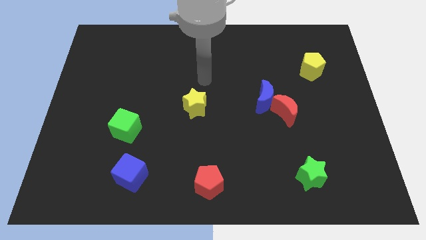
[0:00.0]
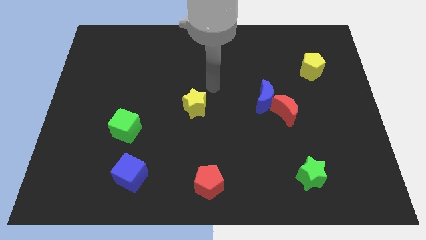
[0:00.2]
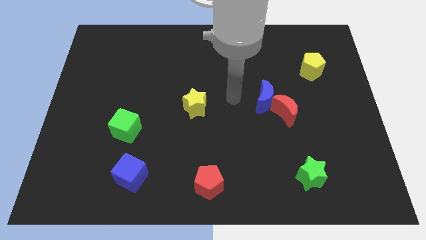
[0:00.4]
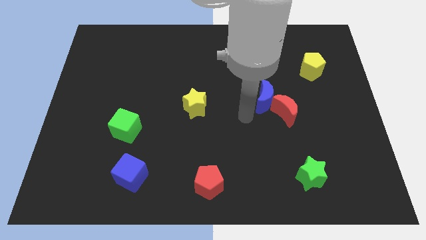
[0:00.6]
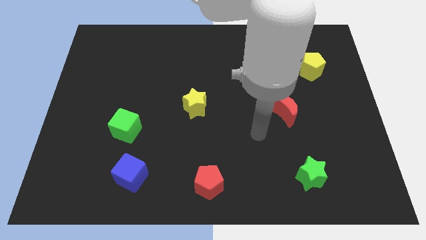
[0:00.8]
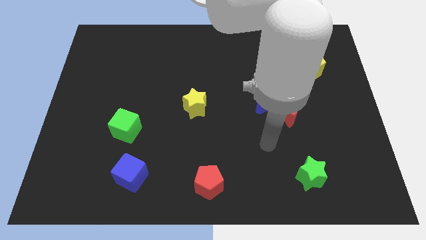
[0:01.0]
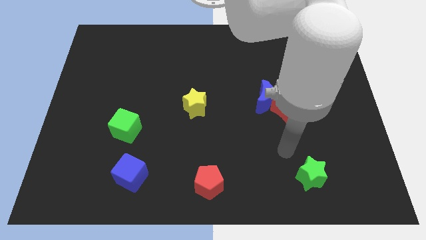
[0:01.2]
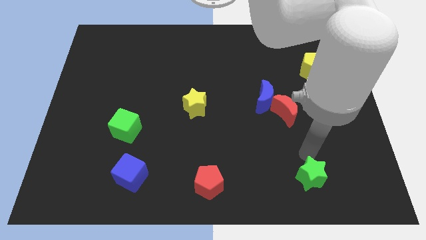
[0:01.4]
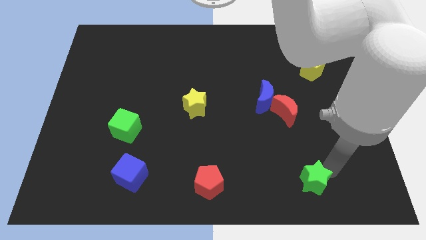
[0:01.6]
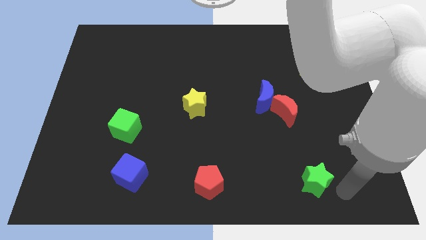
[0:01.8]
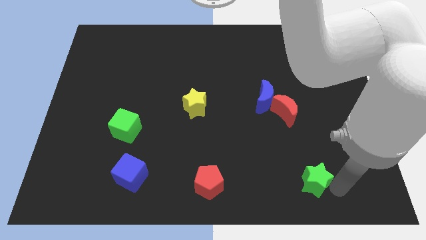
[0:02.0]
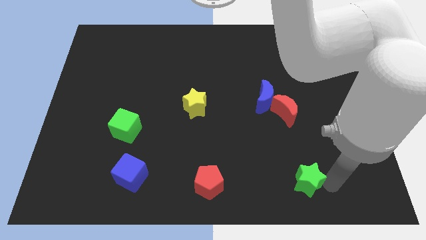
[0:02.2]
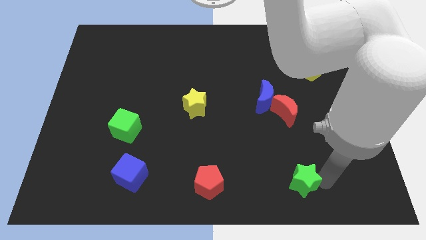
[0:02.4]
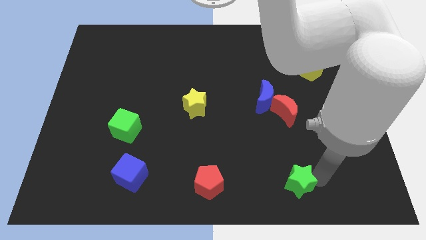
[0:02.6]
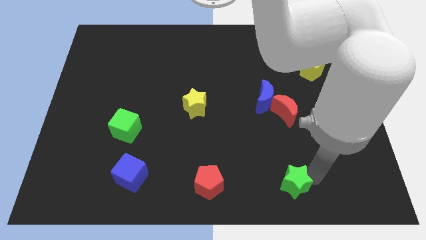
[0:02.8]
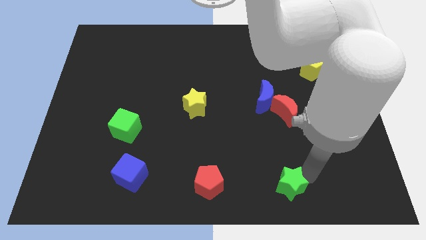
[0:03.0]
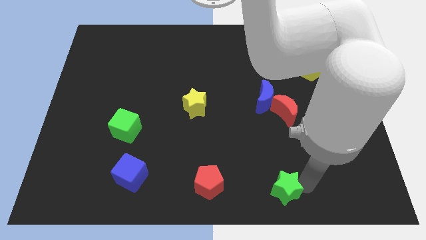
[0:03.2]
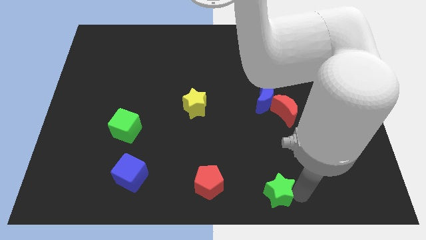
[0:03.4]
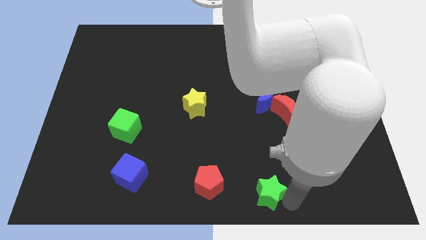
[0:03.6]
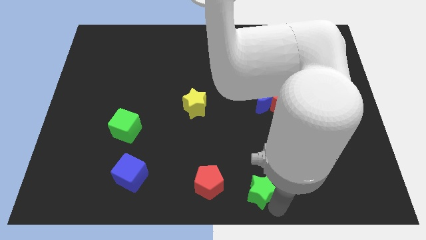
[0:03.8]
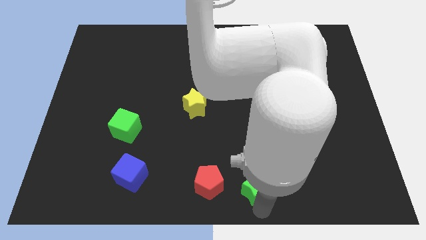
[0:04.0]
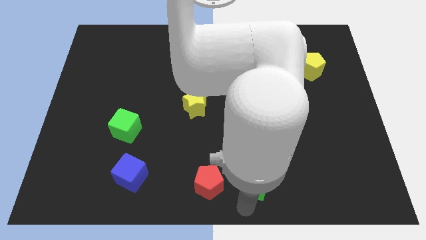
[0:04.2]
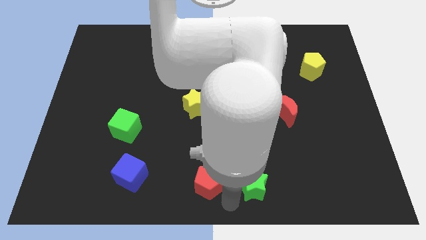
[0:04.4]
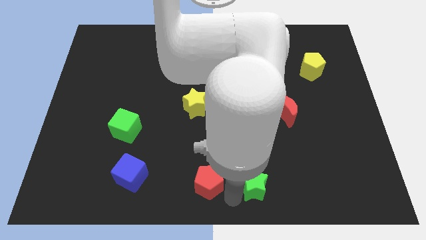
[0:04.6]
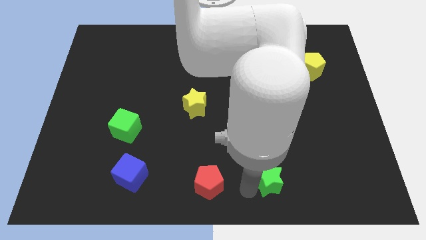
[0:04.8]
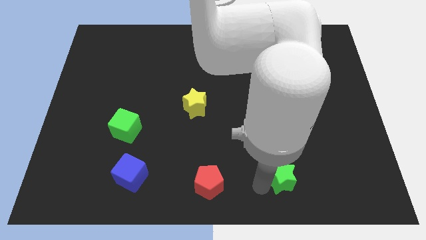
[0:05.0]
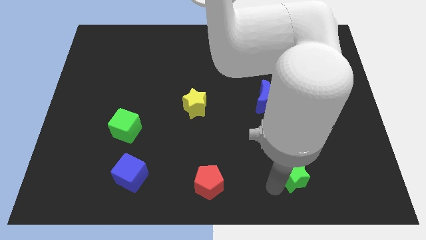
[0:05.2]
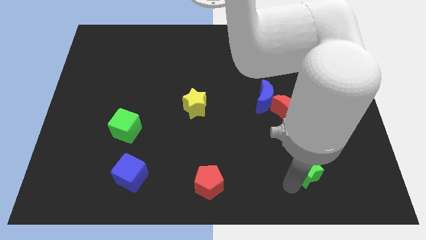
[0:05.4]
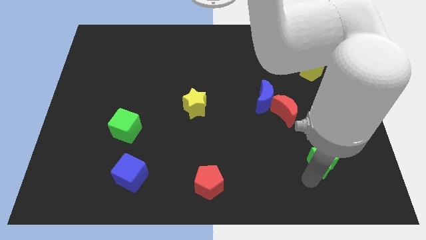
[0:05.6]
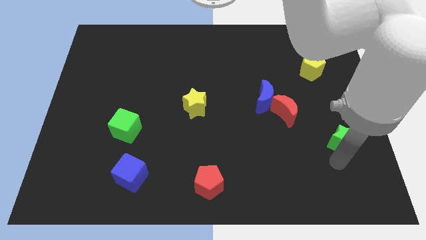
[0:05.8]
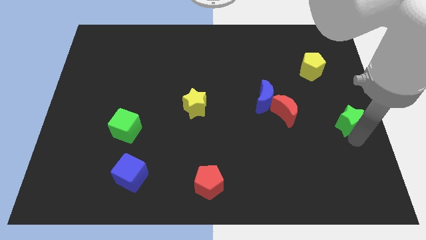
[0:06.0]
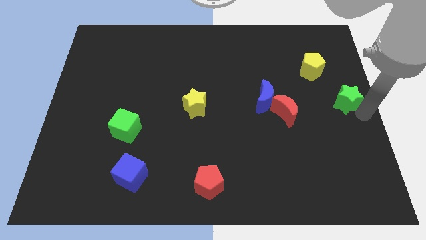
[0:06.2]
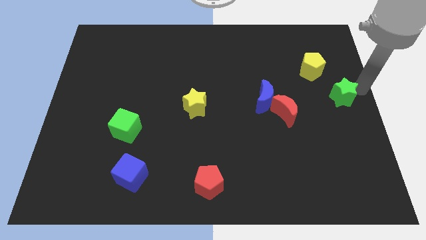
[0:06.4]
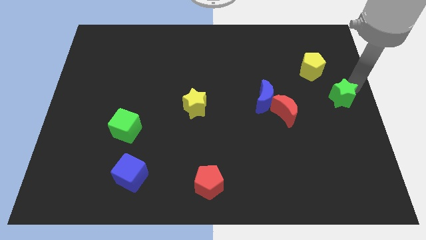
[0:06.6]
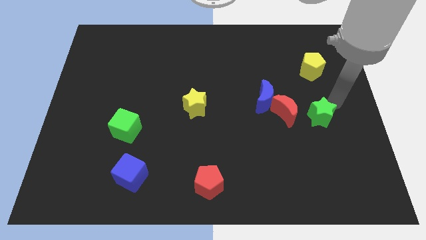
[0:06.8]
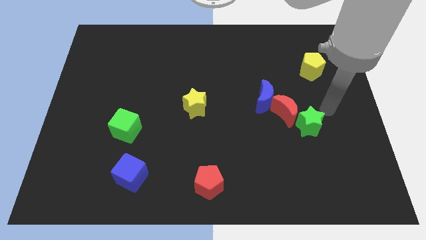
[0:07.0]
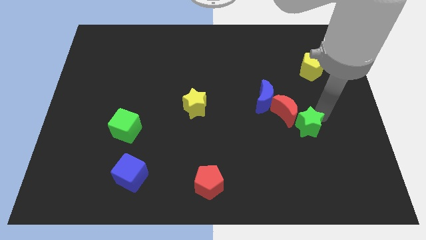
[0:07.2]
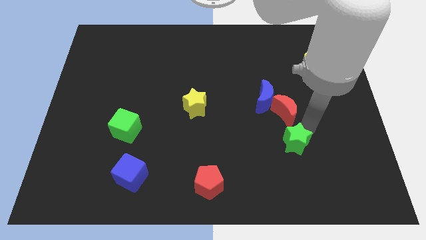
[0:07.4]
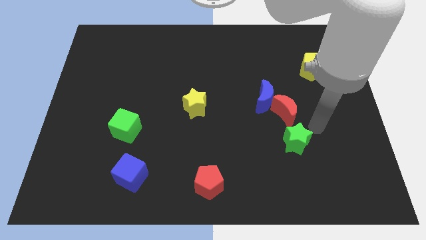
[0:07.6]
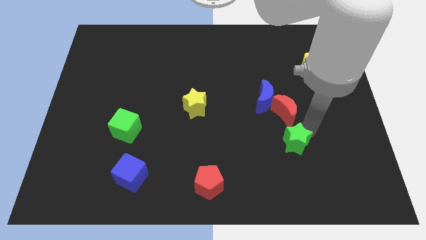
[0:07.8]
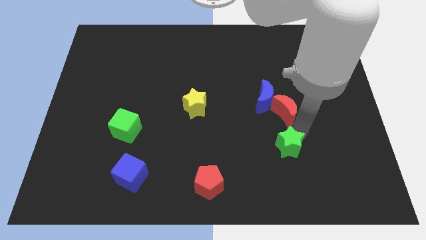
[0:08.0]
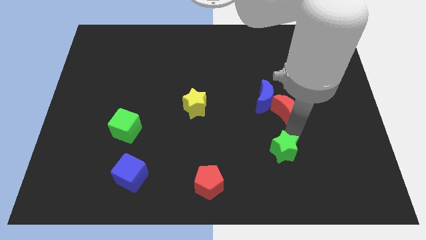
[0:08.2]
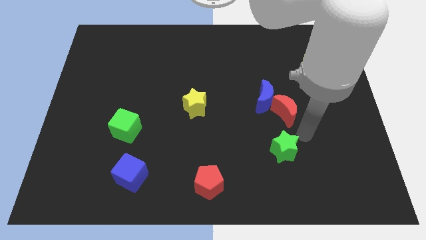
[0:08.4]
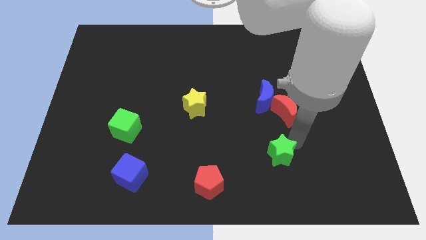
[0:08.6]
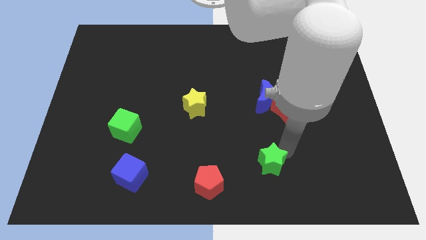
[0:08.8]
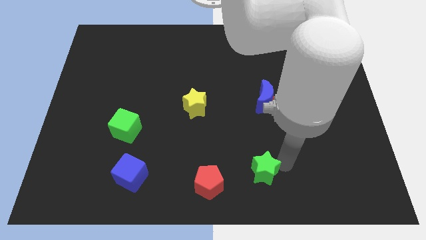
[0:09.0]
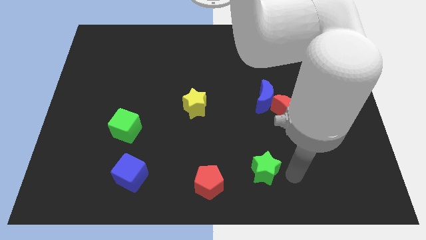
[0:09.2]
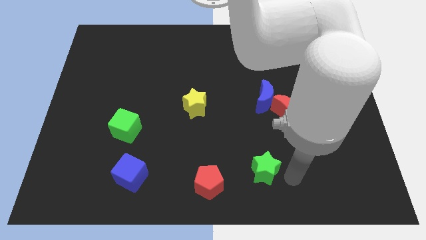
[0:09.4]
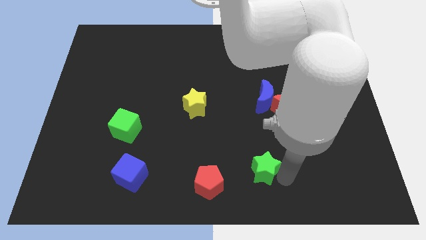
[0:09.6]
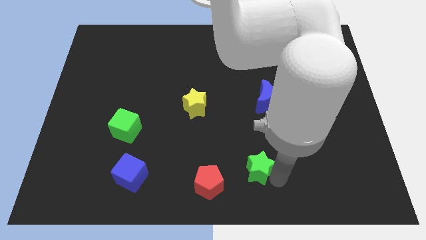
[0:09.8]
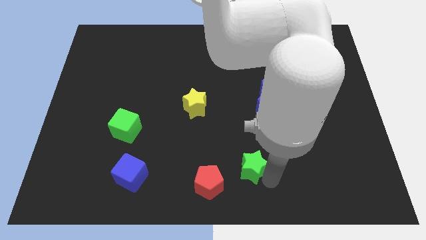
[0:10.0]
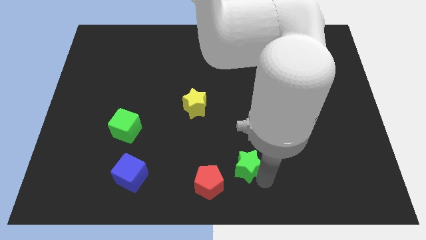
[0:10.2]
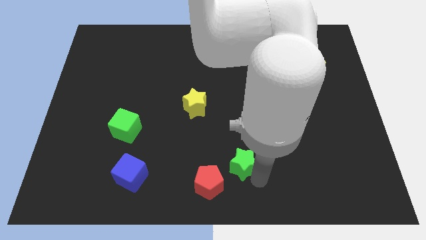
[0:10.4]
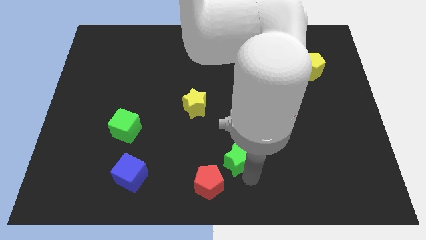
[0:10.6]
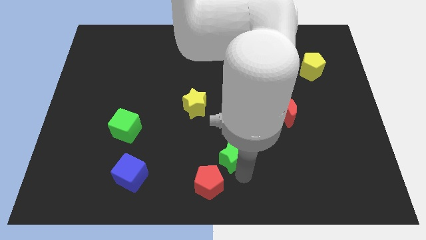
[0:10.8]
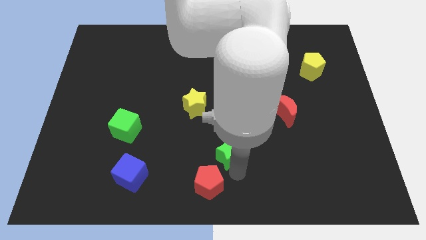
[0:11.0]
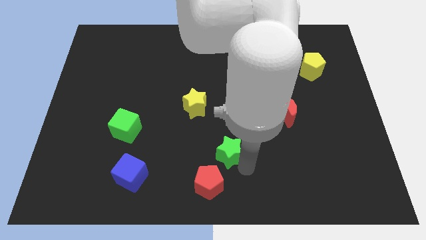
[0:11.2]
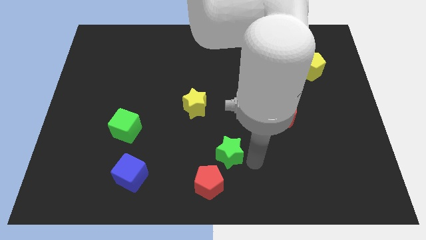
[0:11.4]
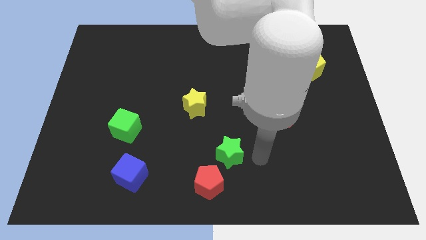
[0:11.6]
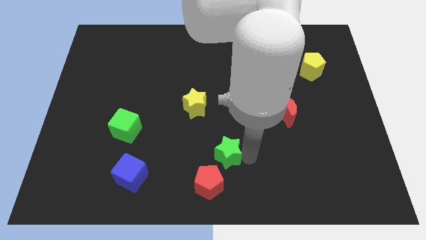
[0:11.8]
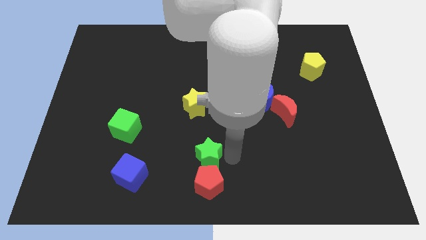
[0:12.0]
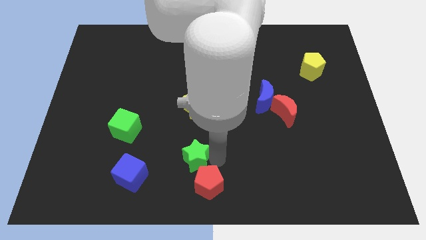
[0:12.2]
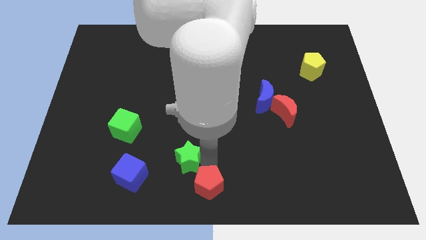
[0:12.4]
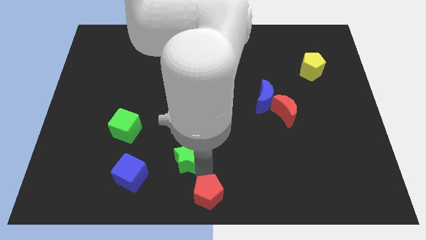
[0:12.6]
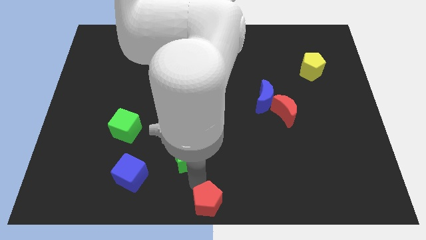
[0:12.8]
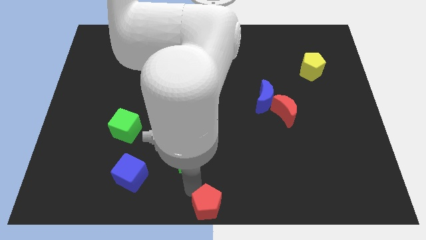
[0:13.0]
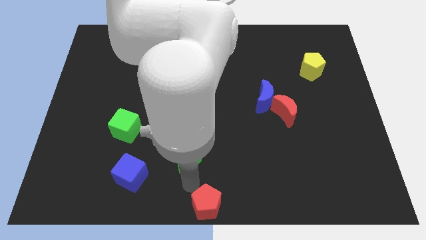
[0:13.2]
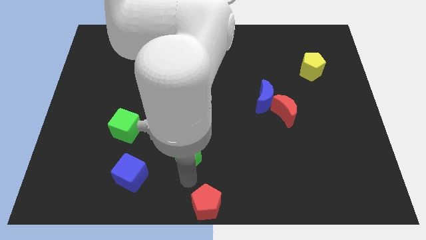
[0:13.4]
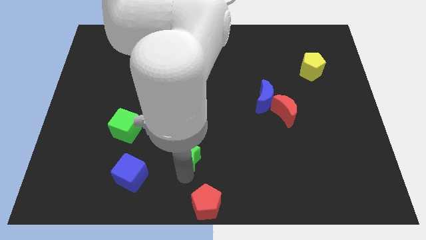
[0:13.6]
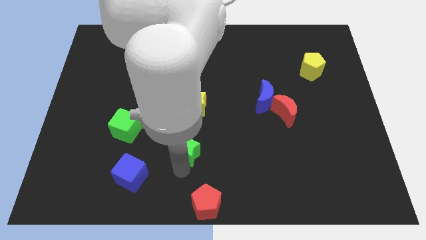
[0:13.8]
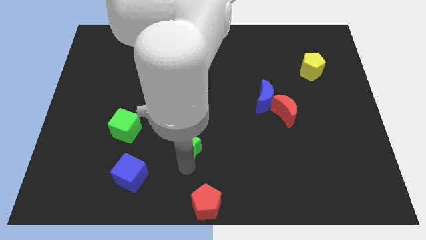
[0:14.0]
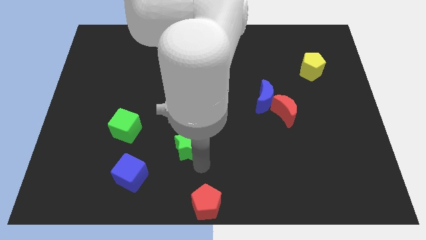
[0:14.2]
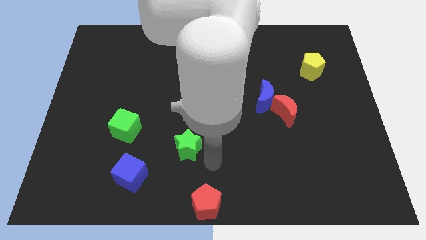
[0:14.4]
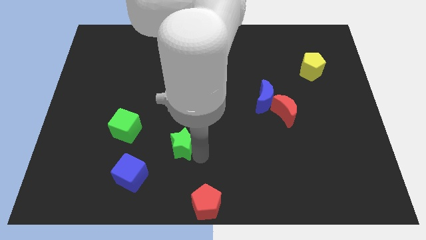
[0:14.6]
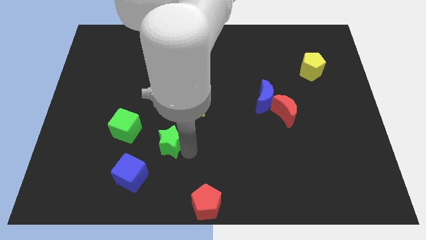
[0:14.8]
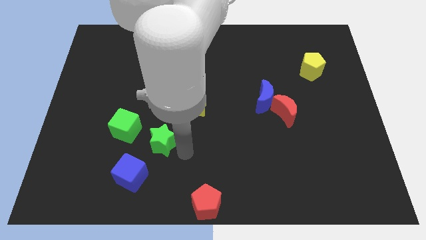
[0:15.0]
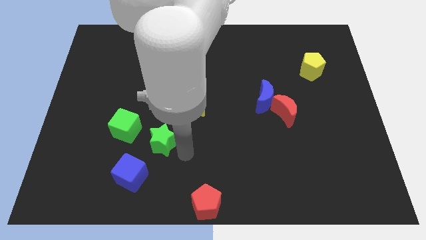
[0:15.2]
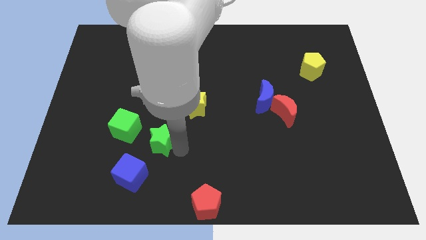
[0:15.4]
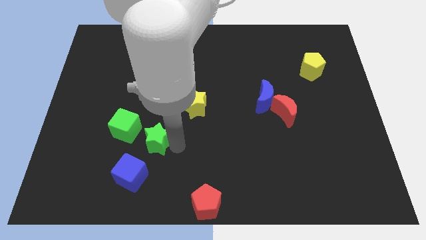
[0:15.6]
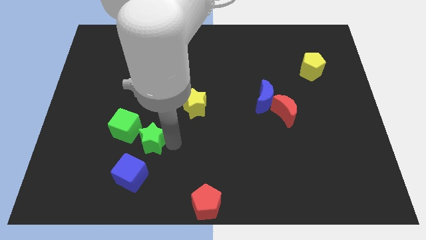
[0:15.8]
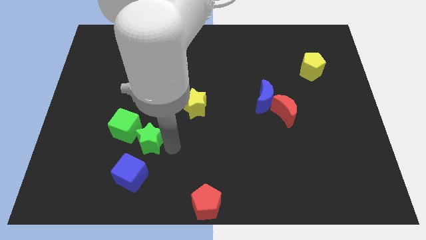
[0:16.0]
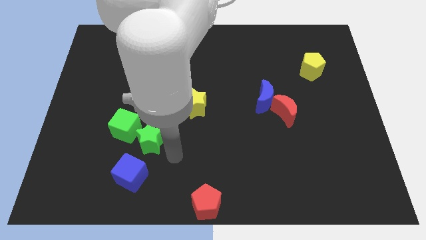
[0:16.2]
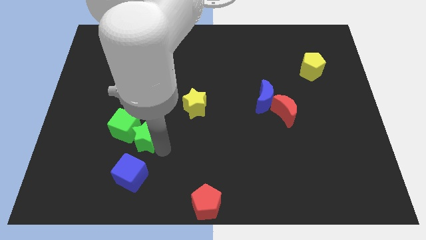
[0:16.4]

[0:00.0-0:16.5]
slide the green star close to the green cube
